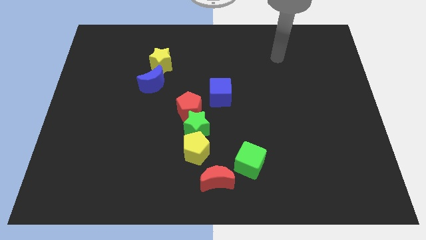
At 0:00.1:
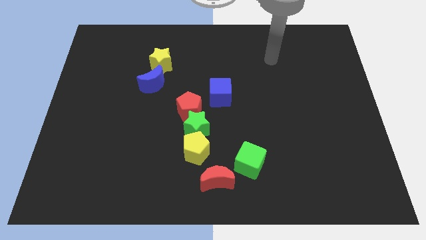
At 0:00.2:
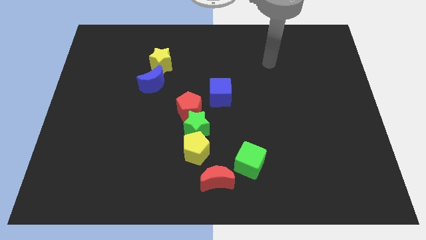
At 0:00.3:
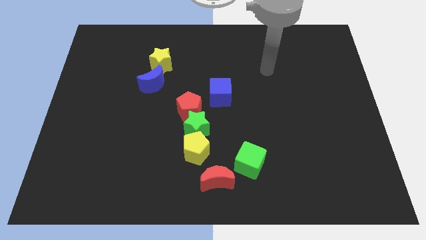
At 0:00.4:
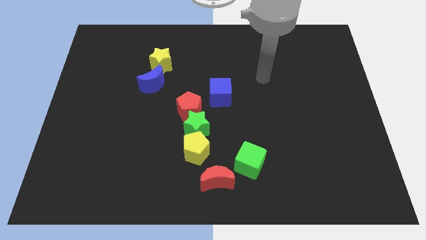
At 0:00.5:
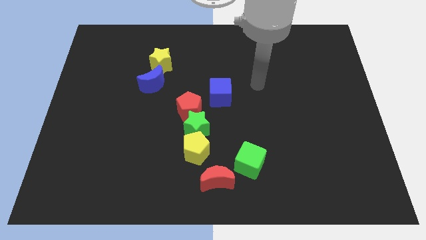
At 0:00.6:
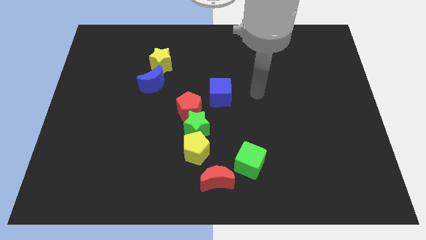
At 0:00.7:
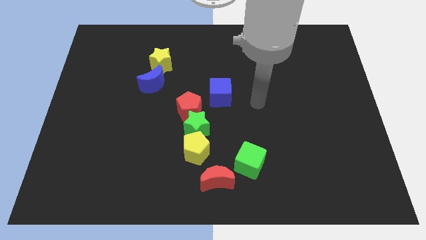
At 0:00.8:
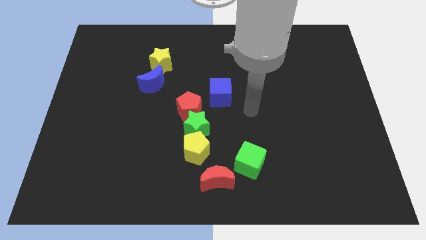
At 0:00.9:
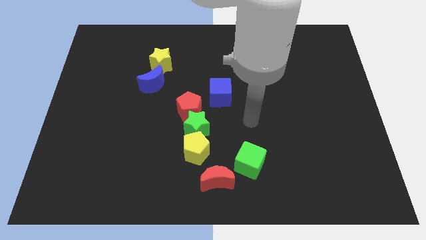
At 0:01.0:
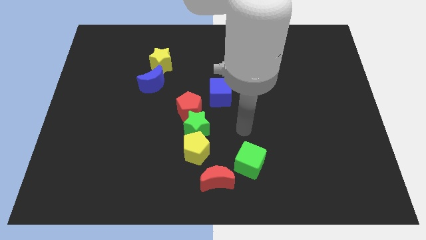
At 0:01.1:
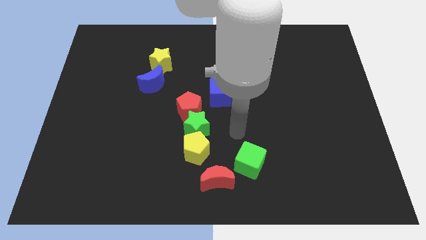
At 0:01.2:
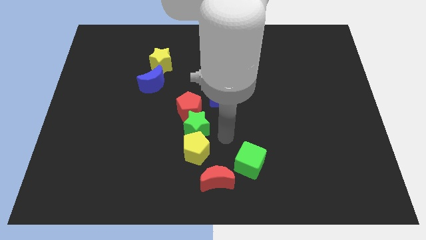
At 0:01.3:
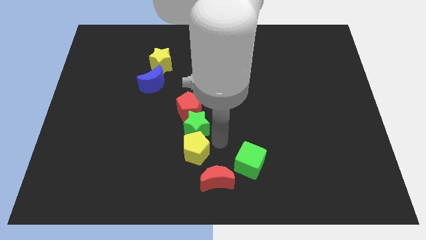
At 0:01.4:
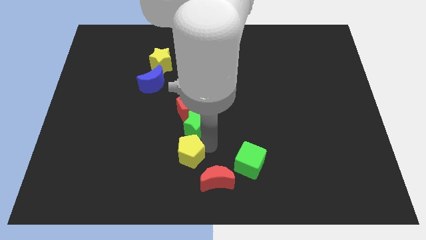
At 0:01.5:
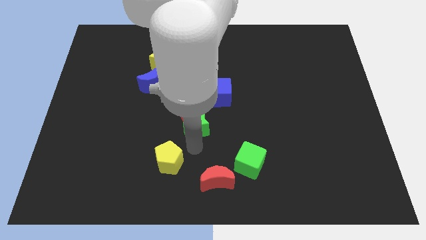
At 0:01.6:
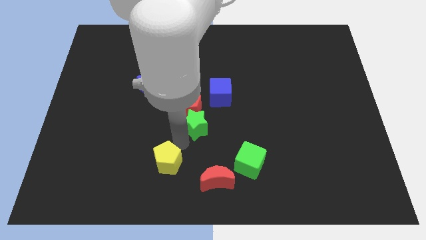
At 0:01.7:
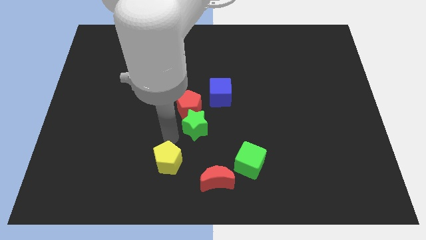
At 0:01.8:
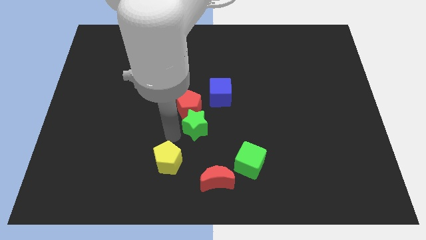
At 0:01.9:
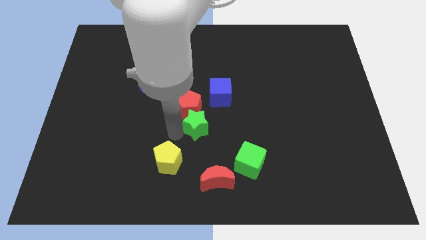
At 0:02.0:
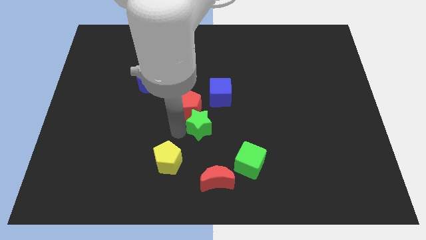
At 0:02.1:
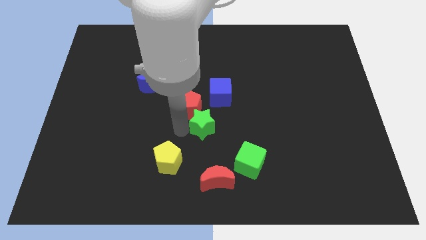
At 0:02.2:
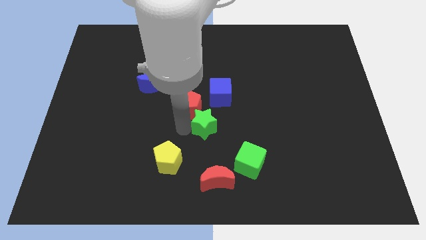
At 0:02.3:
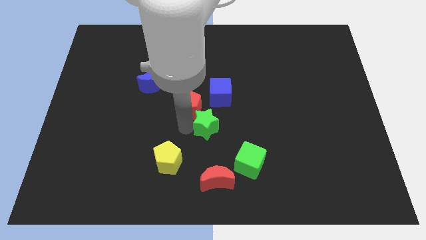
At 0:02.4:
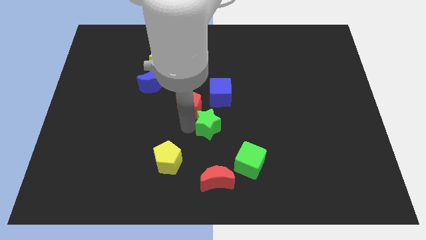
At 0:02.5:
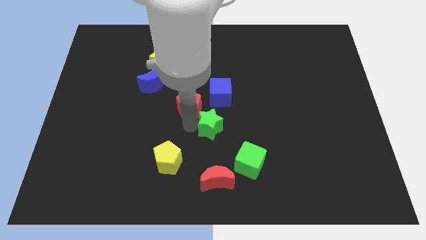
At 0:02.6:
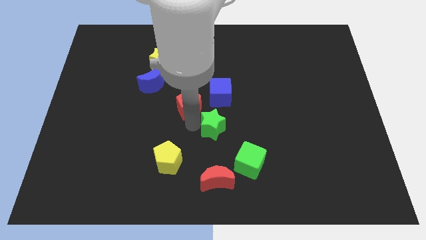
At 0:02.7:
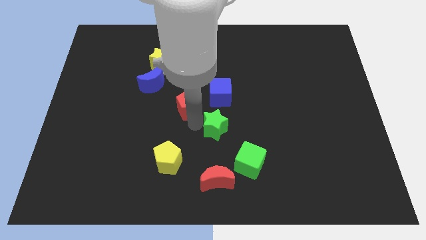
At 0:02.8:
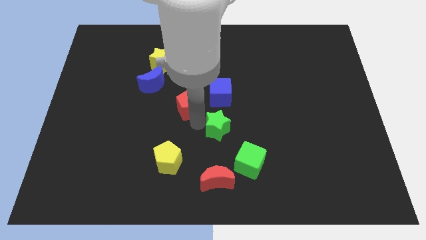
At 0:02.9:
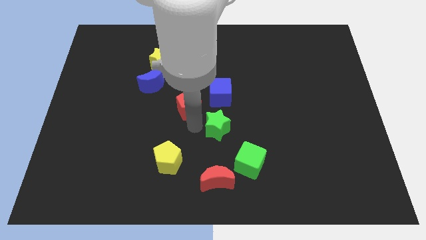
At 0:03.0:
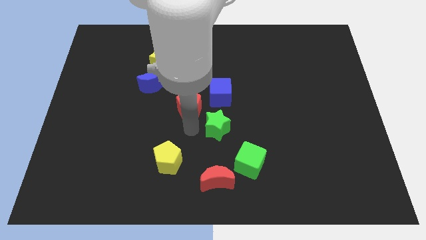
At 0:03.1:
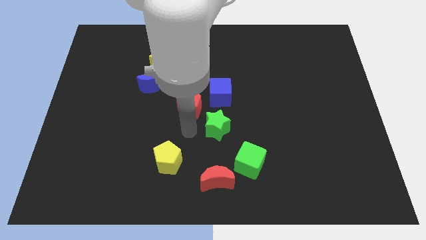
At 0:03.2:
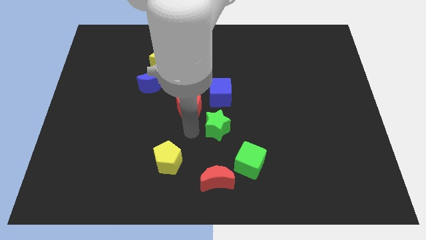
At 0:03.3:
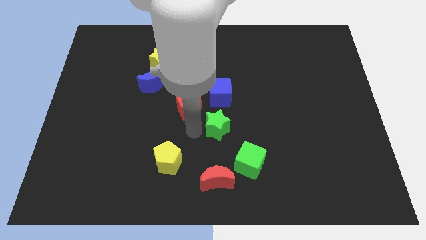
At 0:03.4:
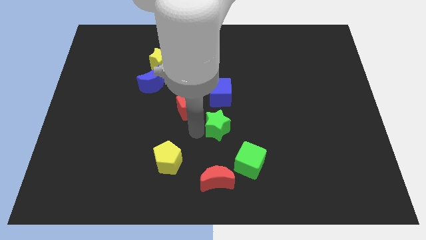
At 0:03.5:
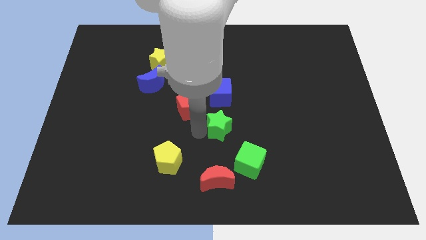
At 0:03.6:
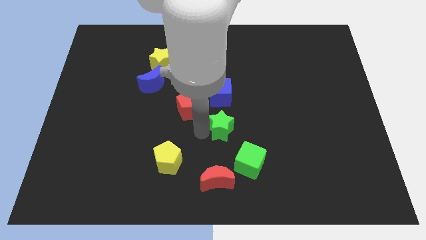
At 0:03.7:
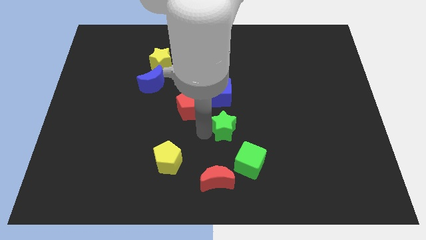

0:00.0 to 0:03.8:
separate the green star from the red pentagon and yellow pentagon

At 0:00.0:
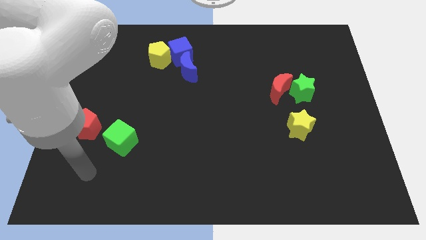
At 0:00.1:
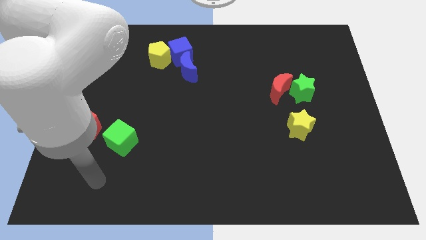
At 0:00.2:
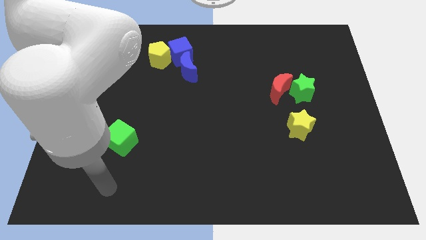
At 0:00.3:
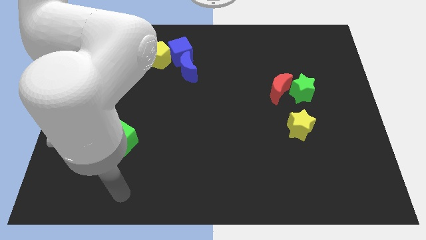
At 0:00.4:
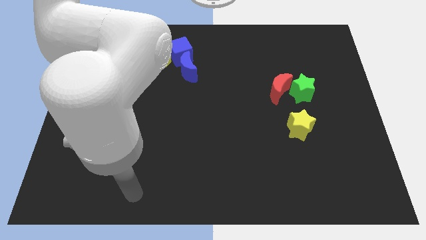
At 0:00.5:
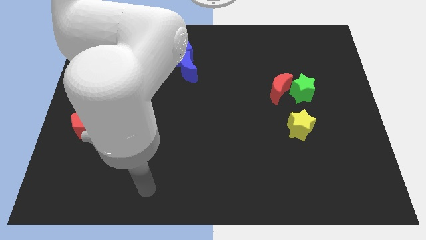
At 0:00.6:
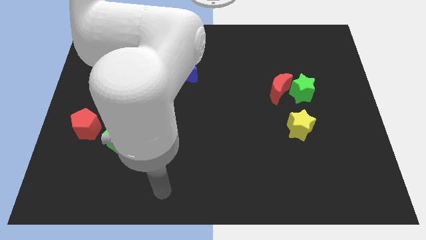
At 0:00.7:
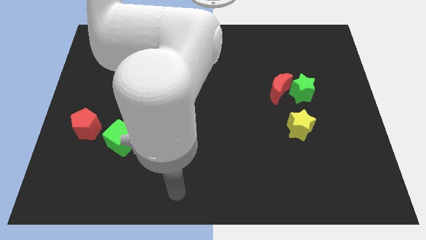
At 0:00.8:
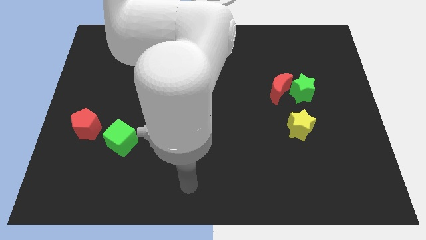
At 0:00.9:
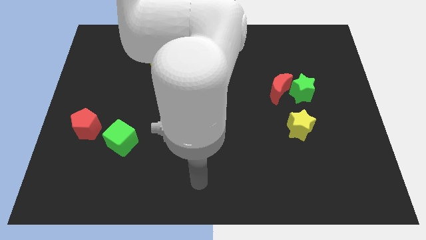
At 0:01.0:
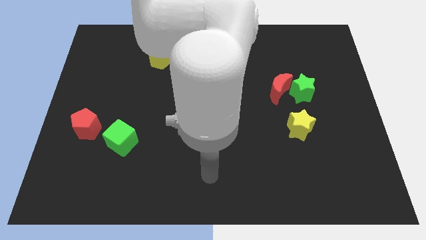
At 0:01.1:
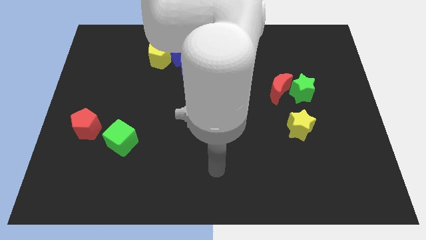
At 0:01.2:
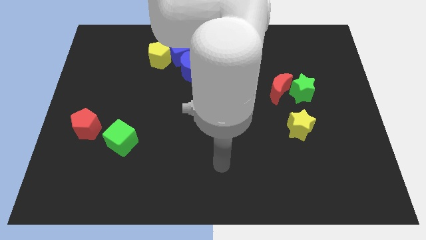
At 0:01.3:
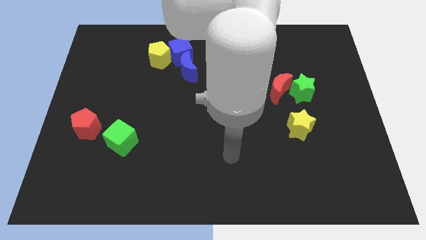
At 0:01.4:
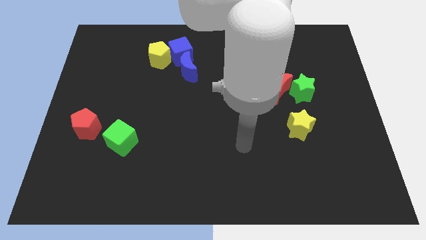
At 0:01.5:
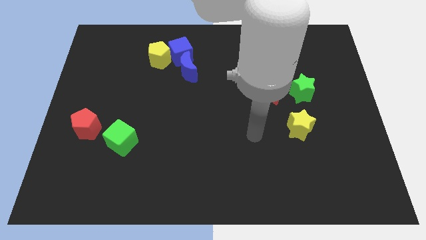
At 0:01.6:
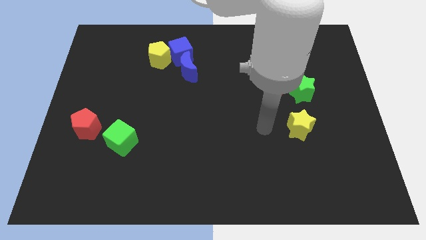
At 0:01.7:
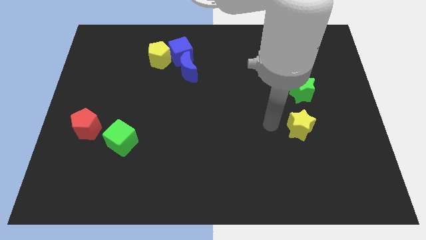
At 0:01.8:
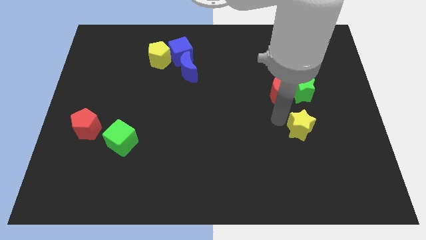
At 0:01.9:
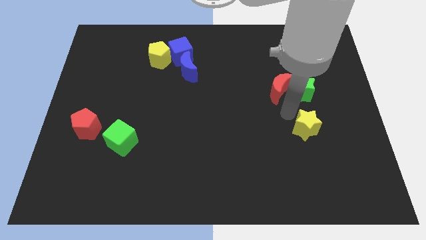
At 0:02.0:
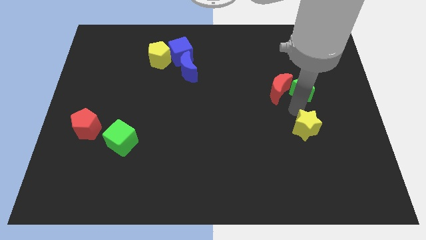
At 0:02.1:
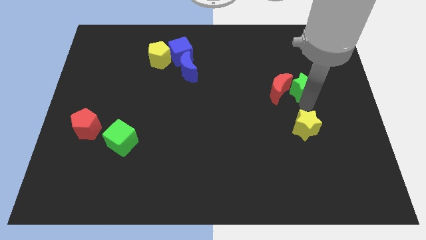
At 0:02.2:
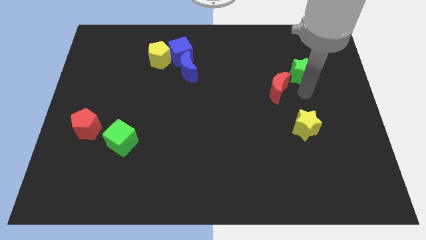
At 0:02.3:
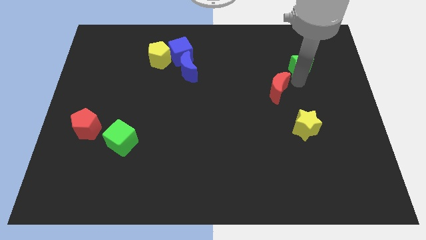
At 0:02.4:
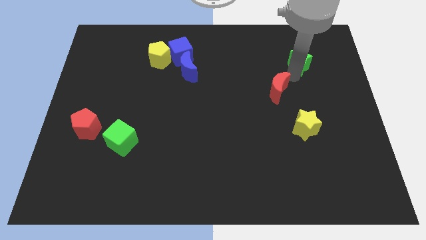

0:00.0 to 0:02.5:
pull the red moon apart from the green star

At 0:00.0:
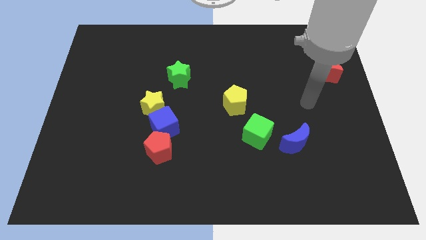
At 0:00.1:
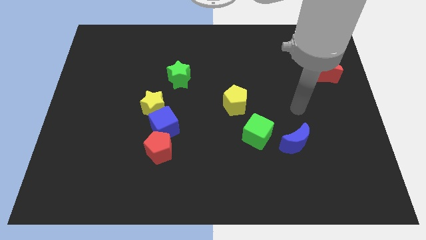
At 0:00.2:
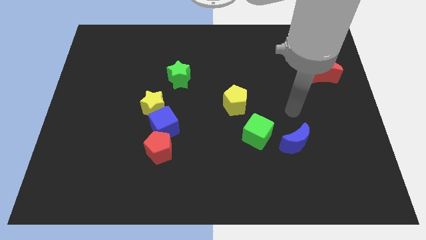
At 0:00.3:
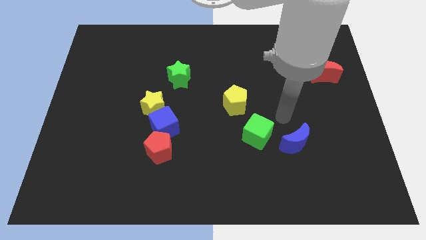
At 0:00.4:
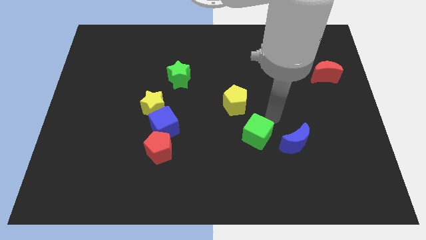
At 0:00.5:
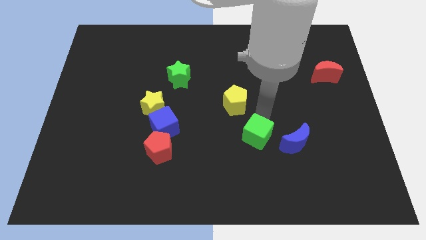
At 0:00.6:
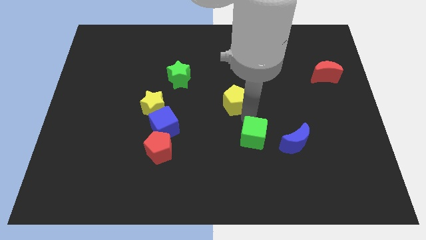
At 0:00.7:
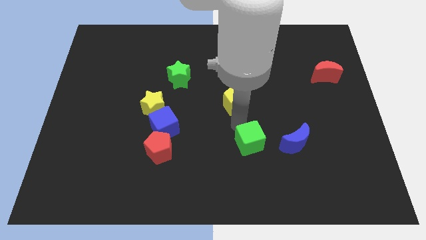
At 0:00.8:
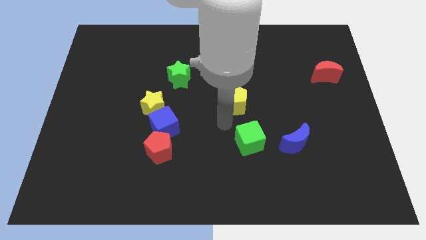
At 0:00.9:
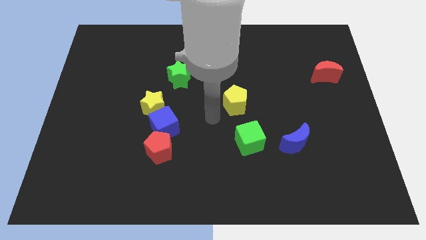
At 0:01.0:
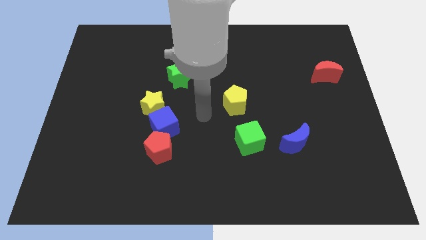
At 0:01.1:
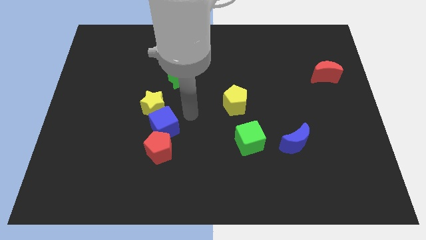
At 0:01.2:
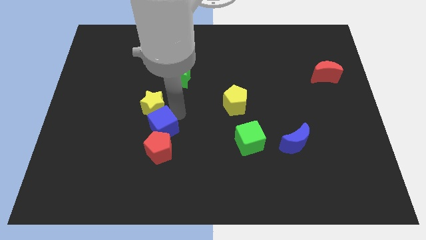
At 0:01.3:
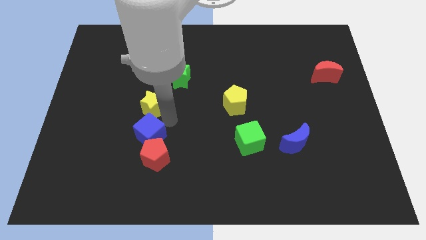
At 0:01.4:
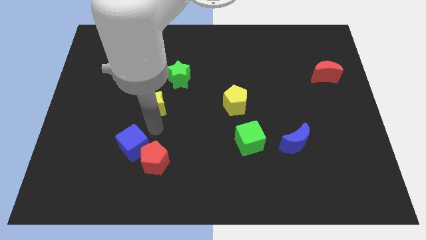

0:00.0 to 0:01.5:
pull the yellow star apart from the blue cube

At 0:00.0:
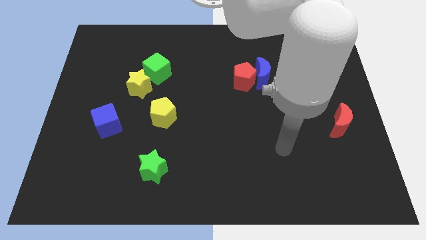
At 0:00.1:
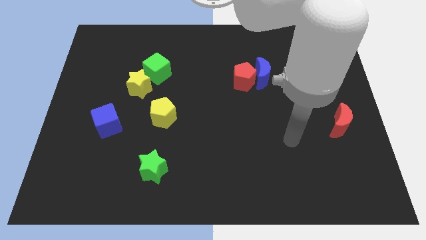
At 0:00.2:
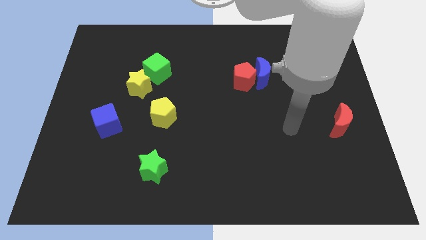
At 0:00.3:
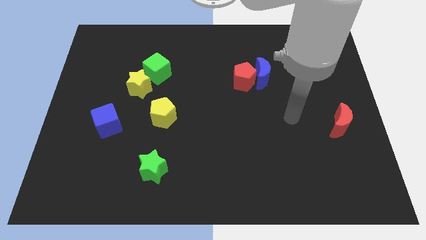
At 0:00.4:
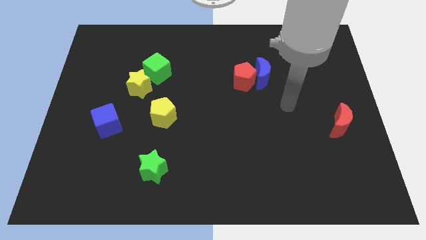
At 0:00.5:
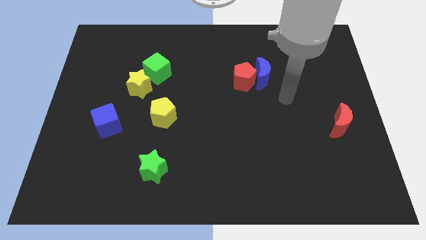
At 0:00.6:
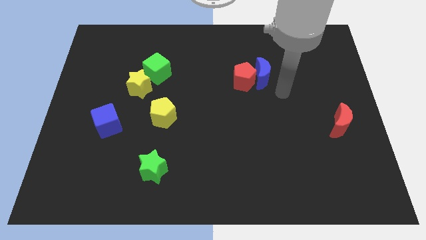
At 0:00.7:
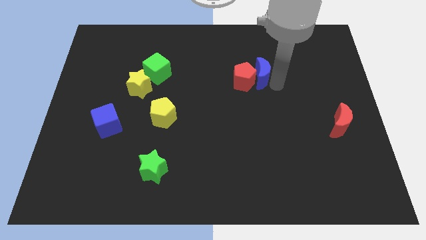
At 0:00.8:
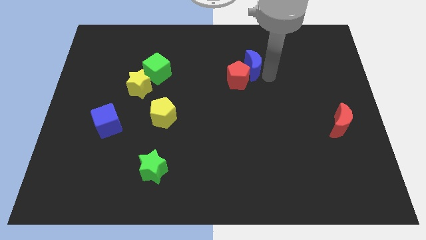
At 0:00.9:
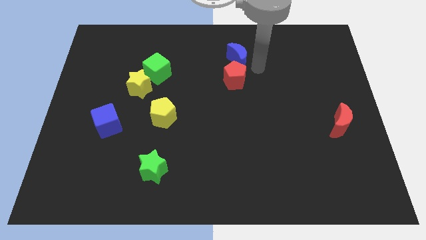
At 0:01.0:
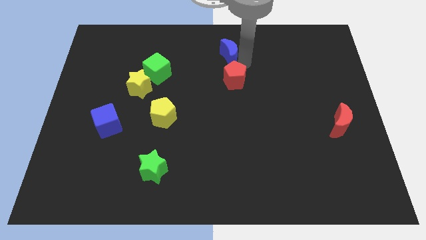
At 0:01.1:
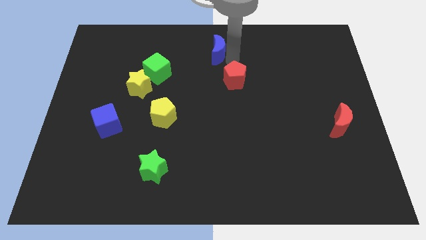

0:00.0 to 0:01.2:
pull the red pentagon apart from the blue moon

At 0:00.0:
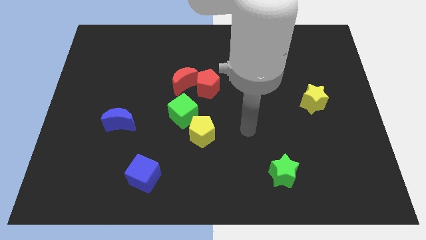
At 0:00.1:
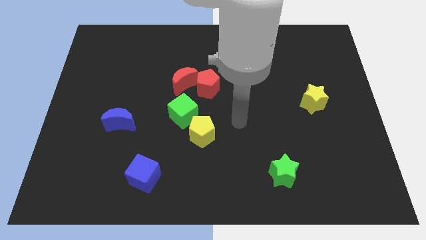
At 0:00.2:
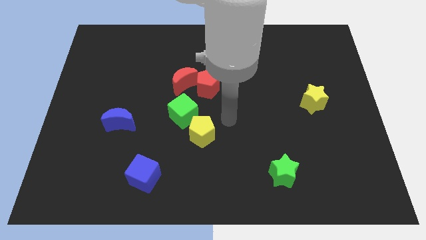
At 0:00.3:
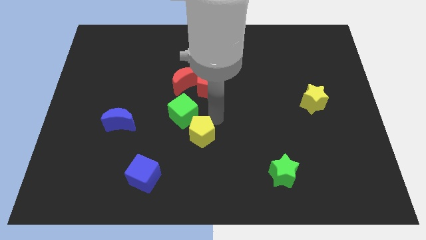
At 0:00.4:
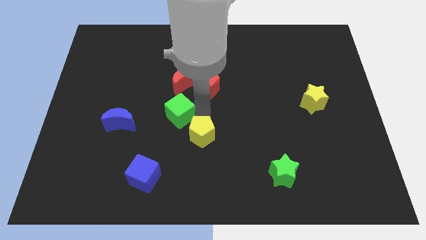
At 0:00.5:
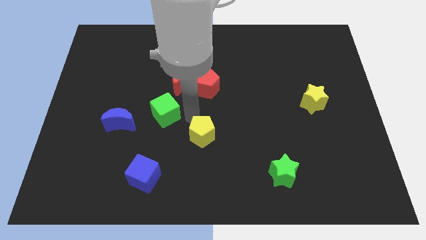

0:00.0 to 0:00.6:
move the yellow pentagon away from the green cube
